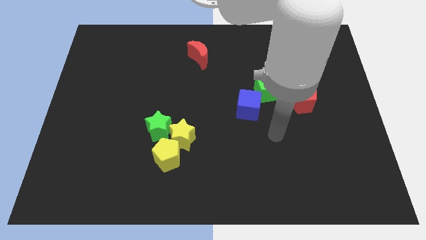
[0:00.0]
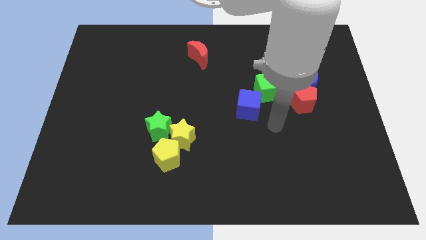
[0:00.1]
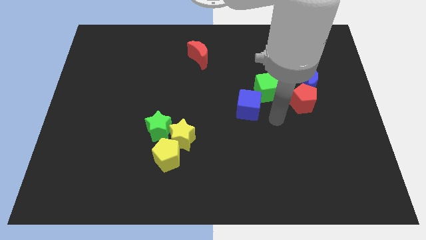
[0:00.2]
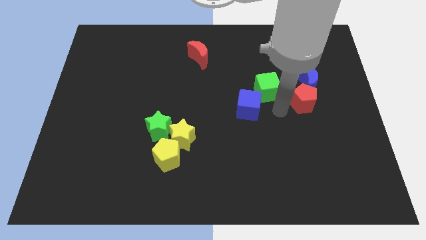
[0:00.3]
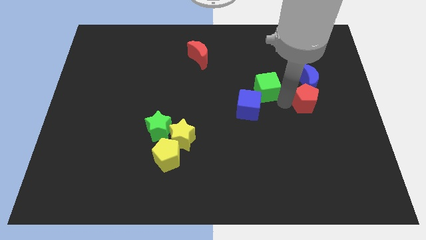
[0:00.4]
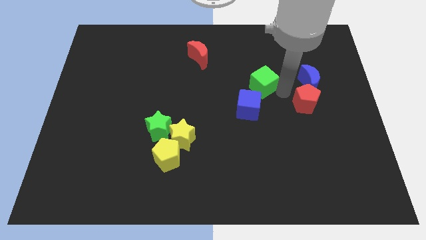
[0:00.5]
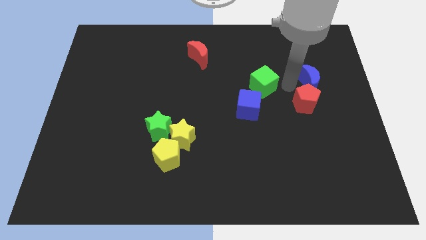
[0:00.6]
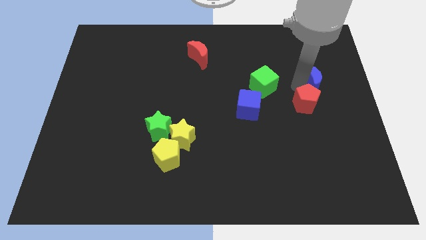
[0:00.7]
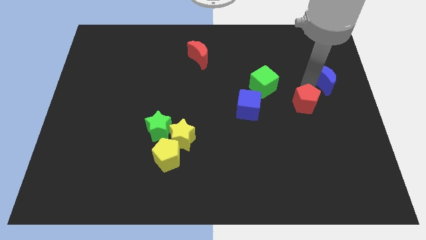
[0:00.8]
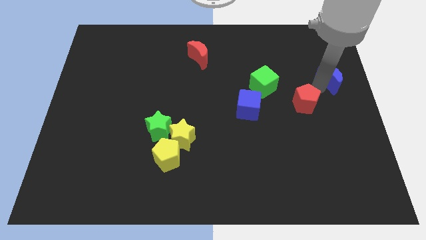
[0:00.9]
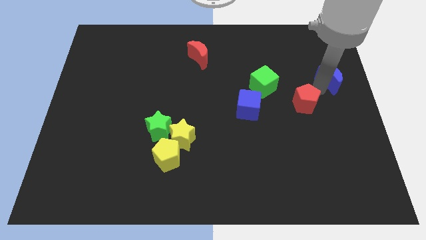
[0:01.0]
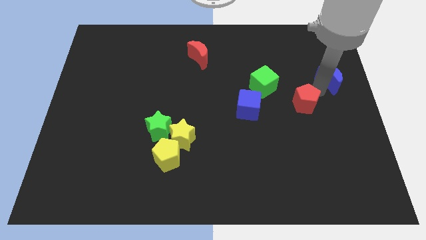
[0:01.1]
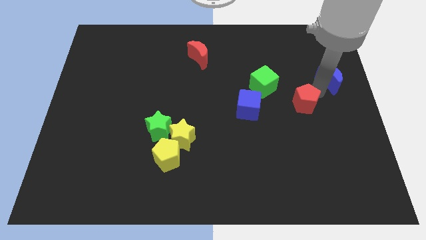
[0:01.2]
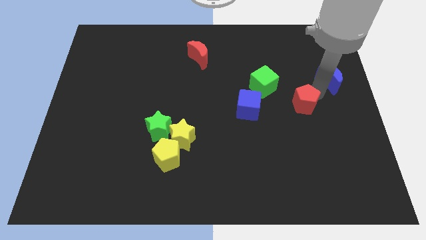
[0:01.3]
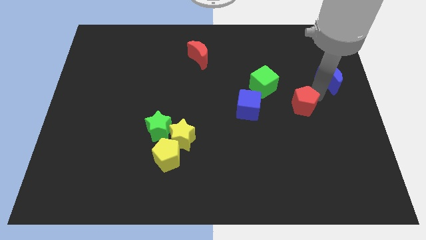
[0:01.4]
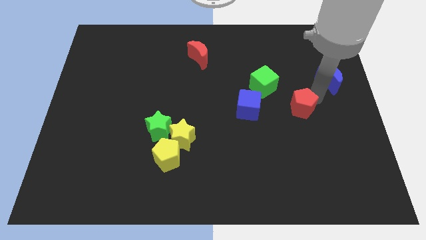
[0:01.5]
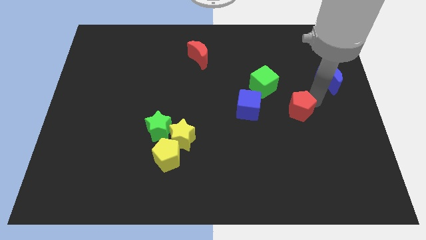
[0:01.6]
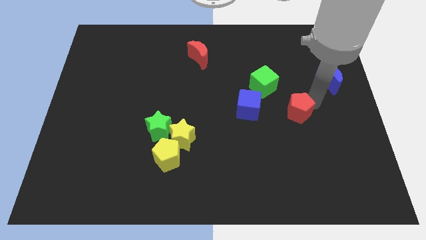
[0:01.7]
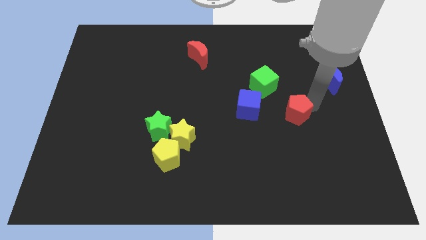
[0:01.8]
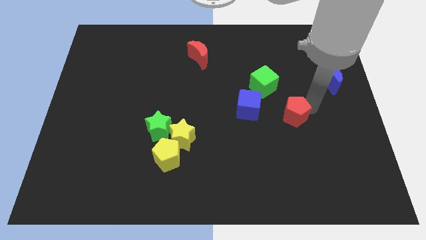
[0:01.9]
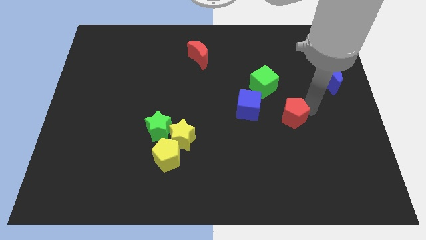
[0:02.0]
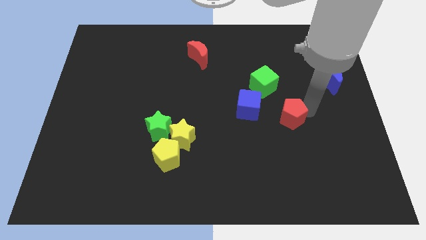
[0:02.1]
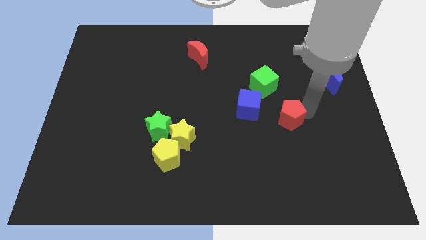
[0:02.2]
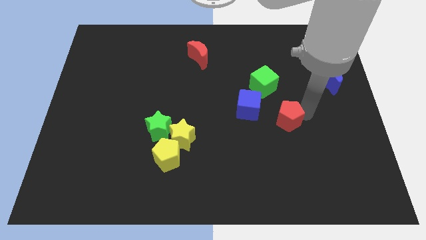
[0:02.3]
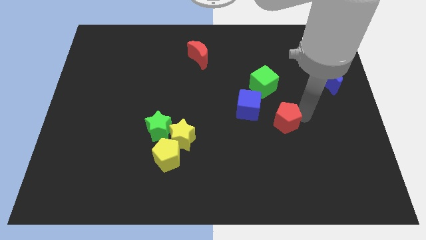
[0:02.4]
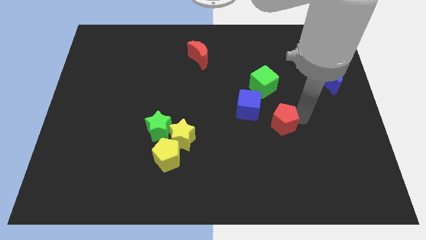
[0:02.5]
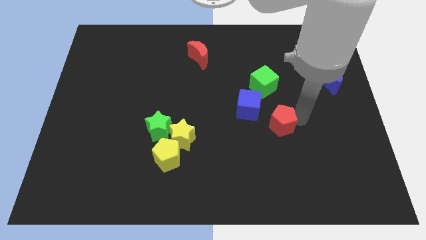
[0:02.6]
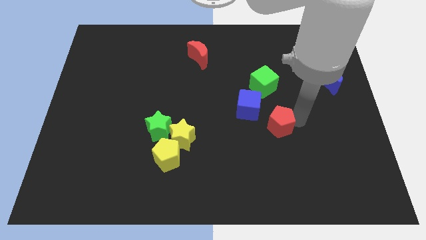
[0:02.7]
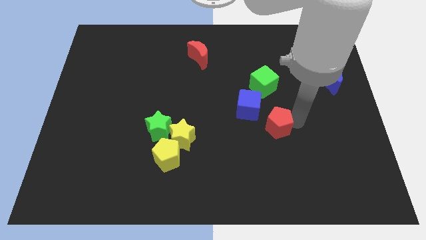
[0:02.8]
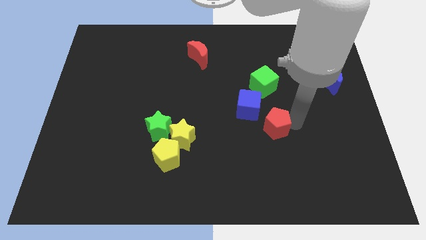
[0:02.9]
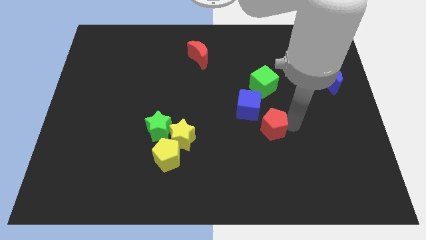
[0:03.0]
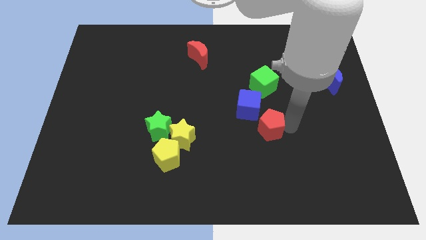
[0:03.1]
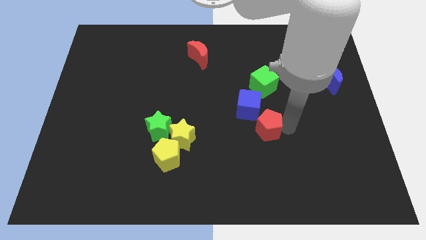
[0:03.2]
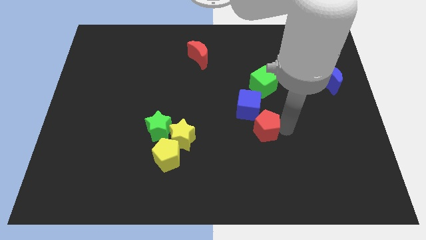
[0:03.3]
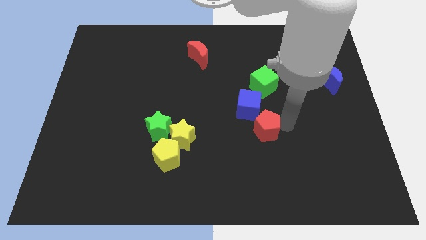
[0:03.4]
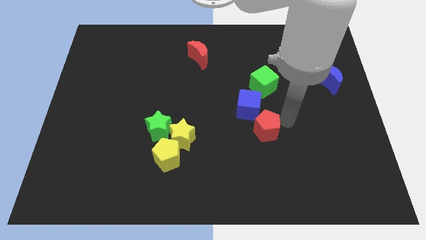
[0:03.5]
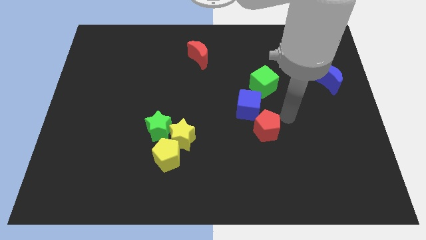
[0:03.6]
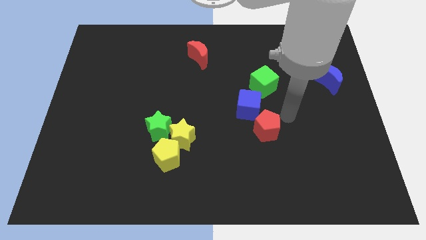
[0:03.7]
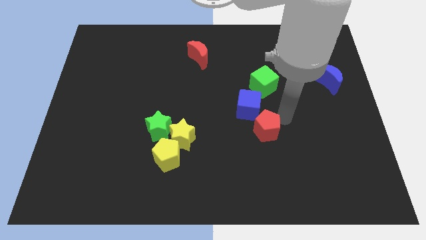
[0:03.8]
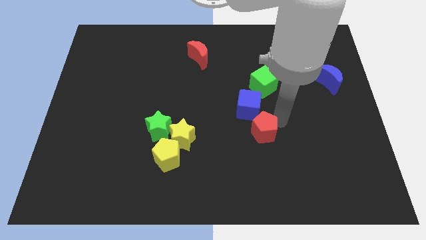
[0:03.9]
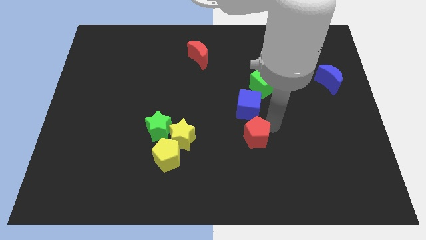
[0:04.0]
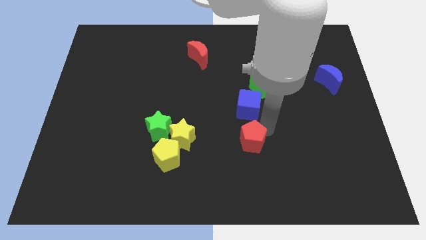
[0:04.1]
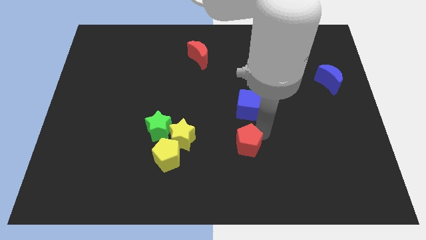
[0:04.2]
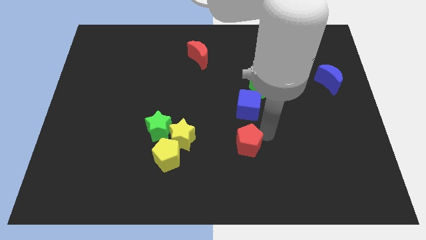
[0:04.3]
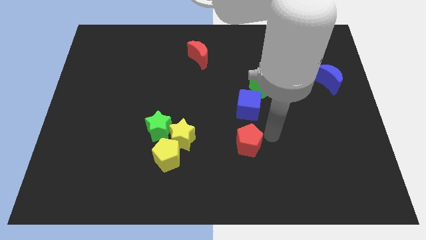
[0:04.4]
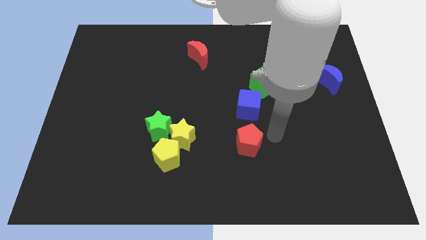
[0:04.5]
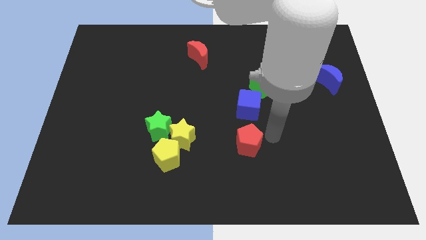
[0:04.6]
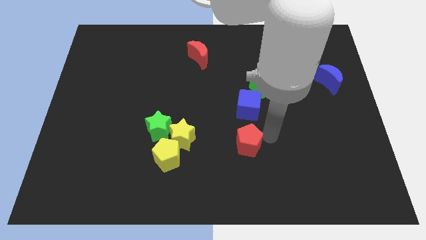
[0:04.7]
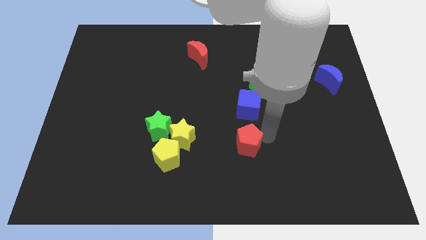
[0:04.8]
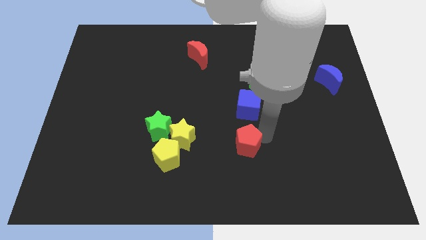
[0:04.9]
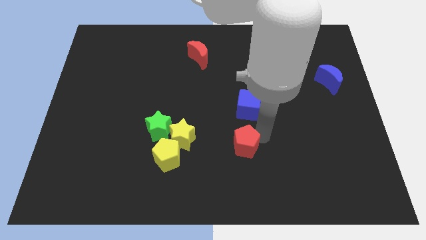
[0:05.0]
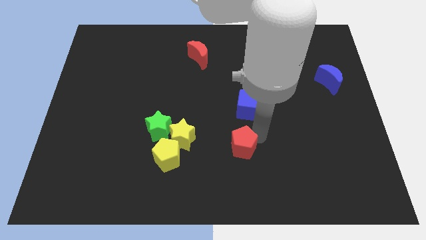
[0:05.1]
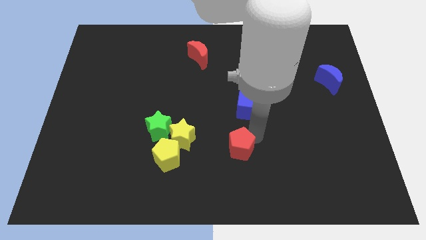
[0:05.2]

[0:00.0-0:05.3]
put the red pentagon to the right of the yellow pentagon

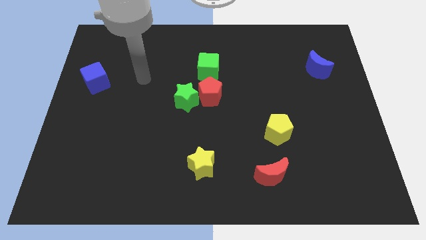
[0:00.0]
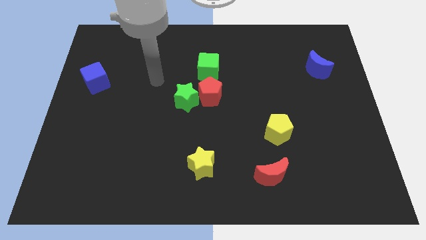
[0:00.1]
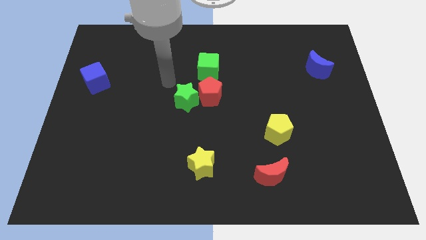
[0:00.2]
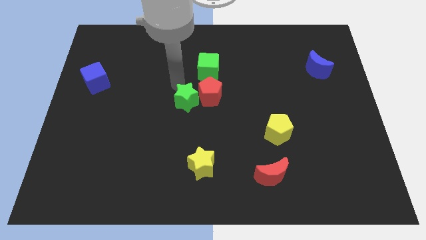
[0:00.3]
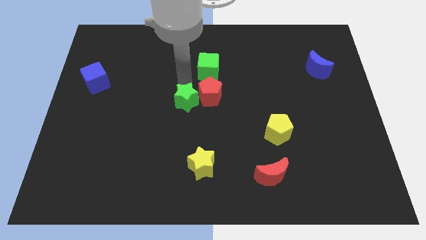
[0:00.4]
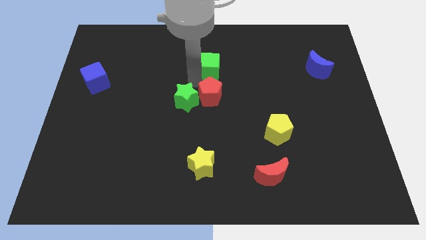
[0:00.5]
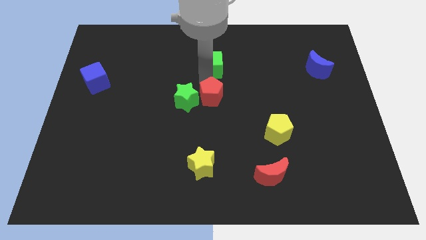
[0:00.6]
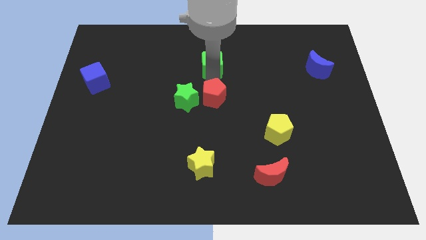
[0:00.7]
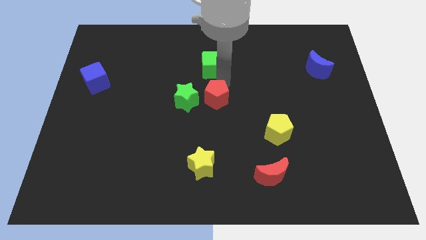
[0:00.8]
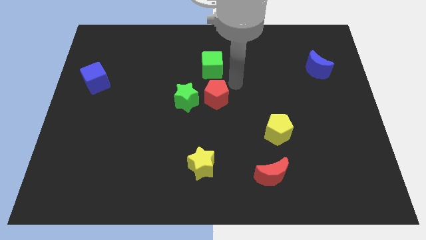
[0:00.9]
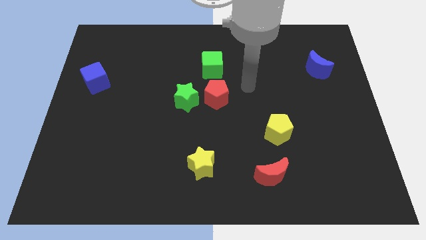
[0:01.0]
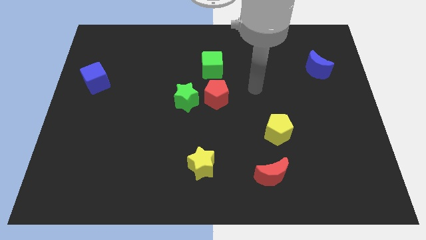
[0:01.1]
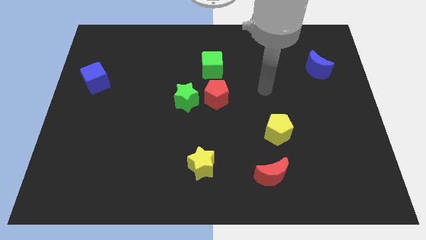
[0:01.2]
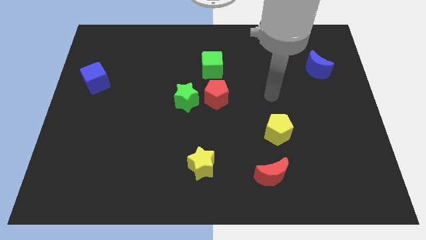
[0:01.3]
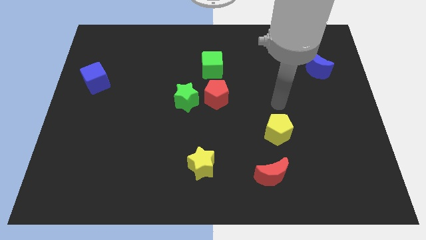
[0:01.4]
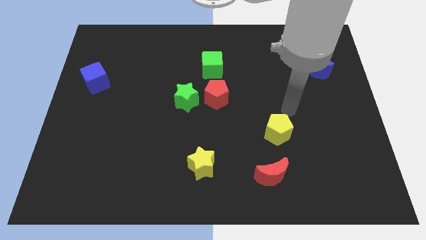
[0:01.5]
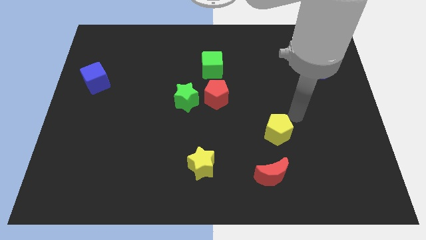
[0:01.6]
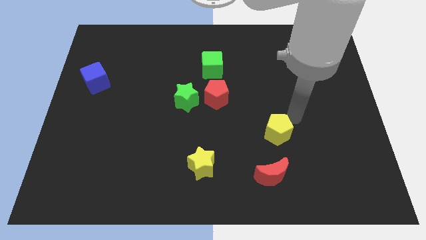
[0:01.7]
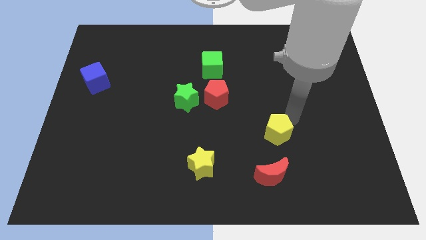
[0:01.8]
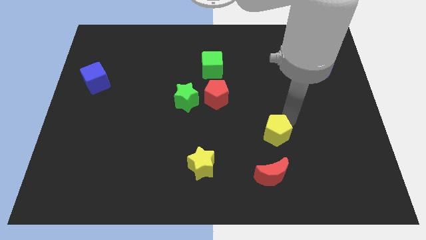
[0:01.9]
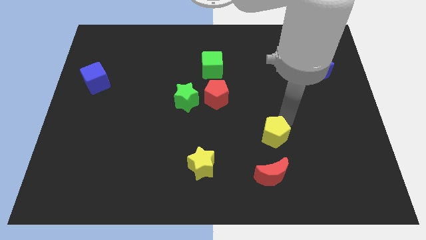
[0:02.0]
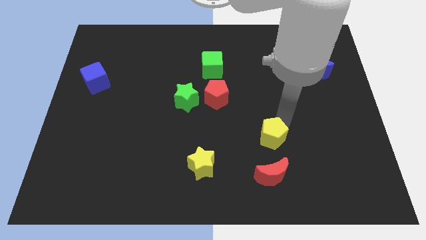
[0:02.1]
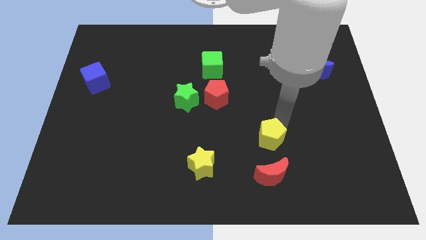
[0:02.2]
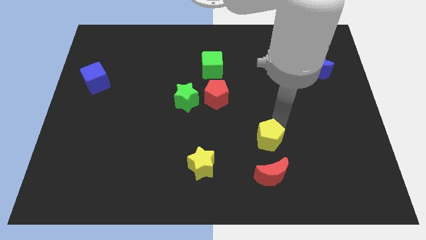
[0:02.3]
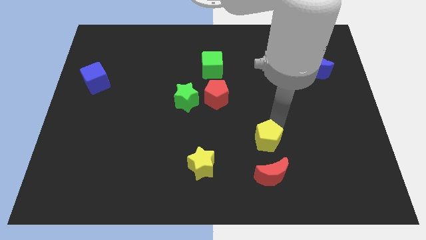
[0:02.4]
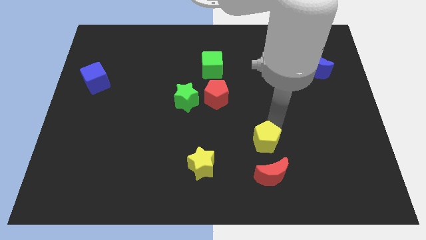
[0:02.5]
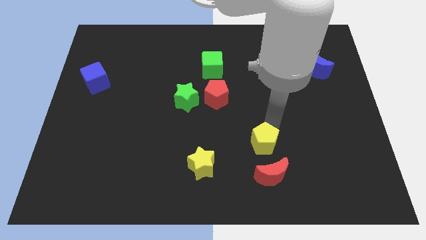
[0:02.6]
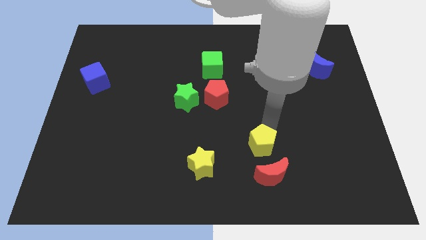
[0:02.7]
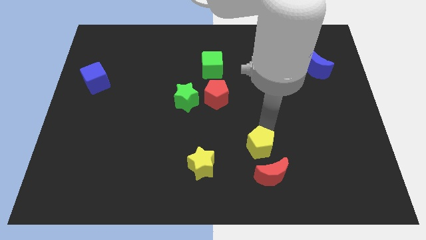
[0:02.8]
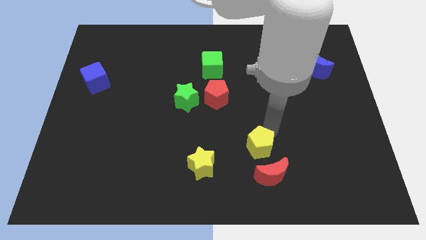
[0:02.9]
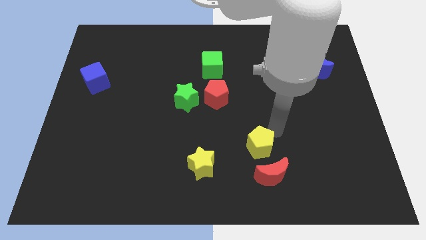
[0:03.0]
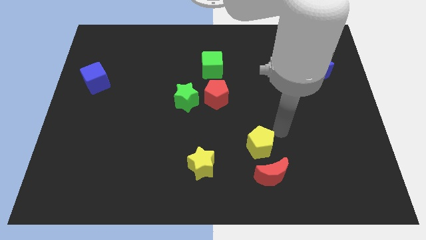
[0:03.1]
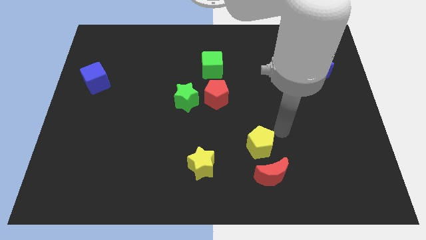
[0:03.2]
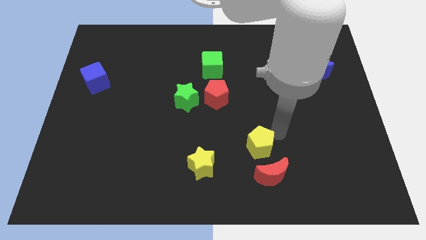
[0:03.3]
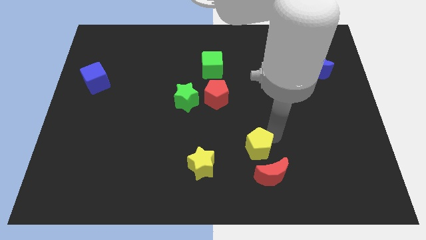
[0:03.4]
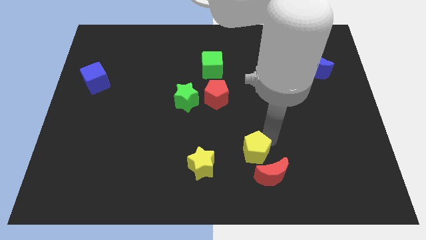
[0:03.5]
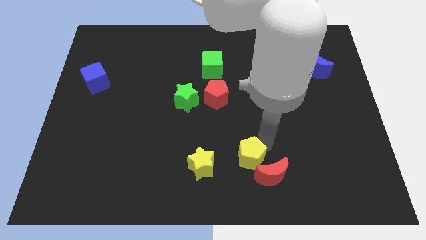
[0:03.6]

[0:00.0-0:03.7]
push the yellow pentagon just left of the red moon
